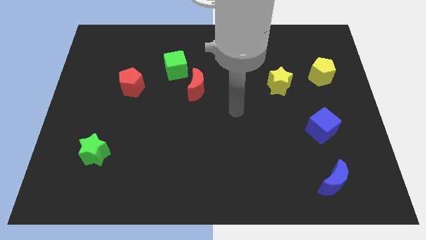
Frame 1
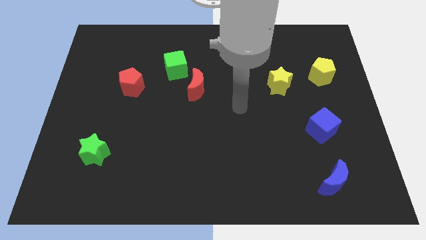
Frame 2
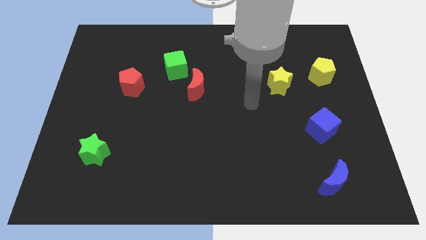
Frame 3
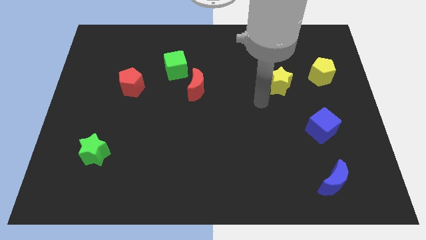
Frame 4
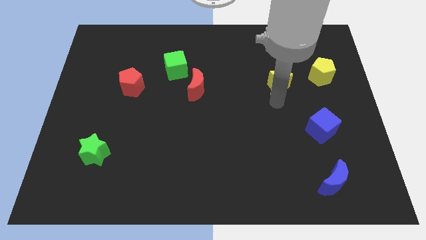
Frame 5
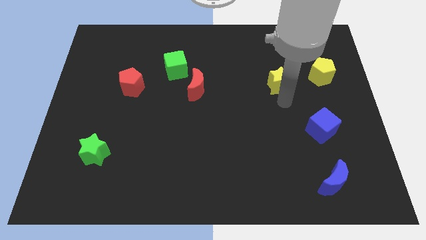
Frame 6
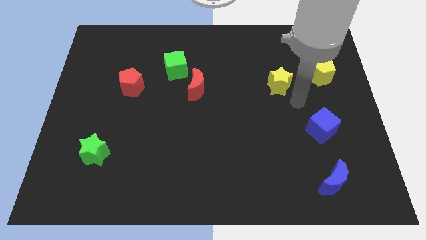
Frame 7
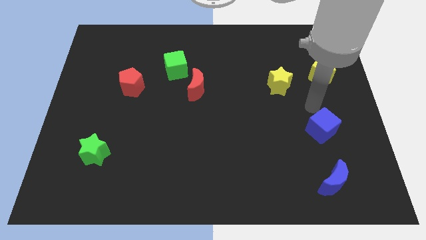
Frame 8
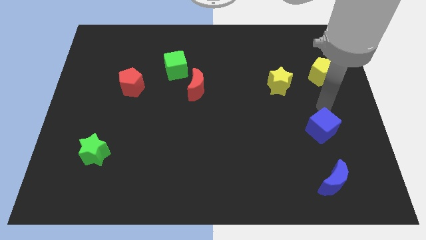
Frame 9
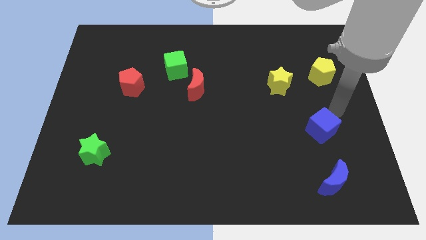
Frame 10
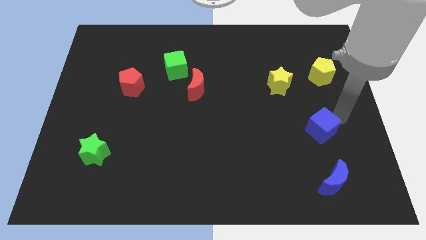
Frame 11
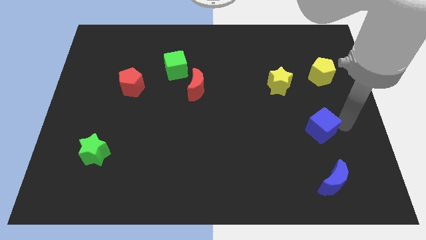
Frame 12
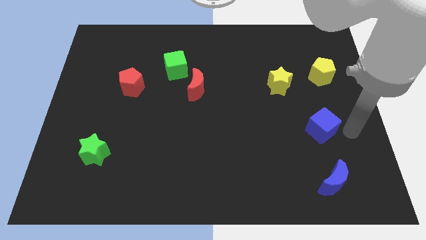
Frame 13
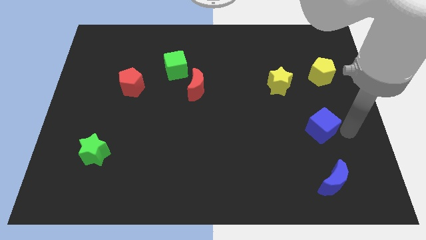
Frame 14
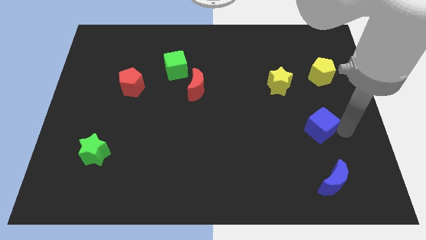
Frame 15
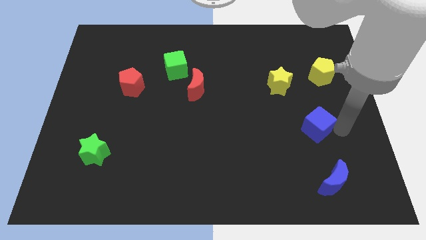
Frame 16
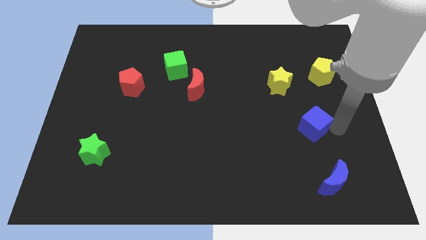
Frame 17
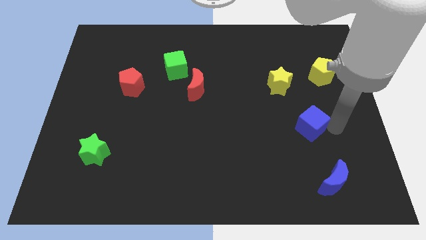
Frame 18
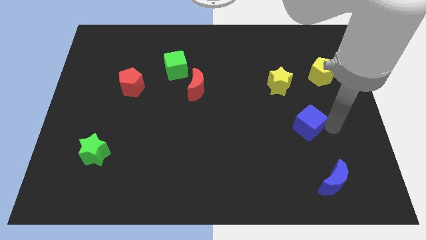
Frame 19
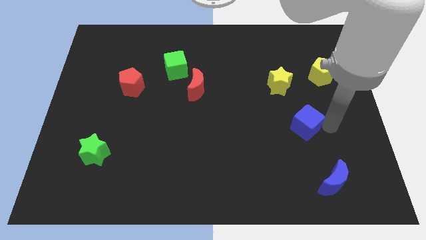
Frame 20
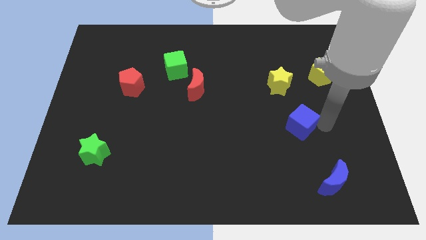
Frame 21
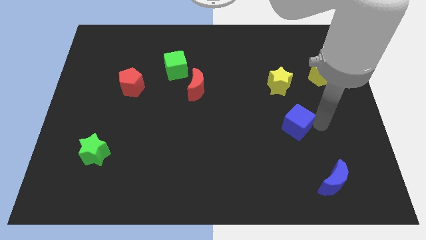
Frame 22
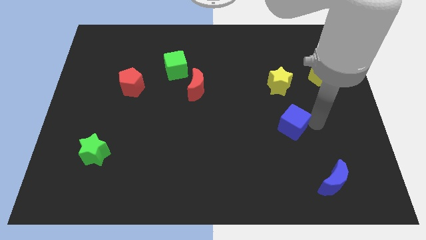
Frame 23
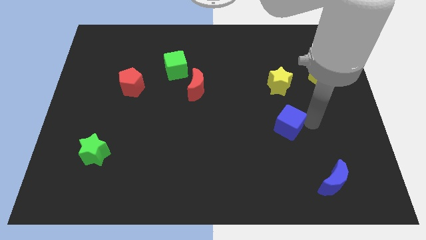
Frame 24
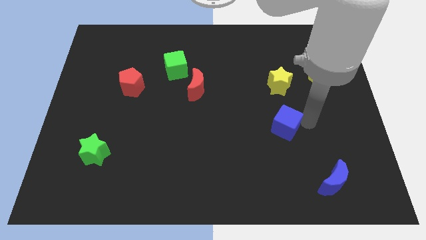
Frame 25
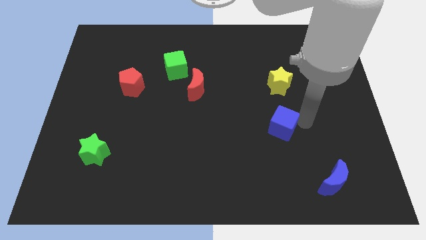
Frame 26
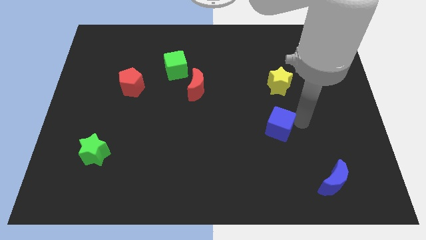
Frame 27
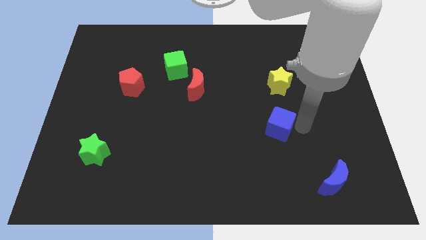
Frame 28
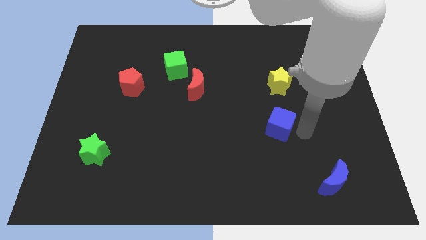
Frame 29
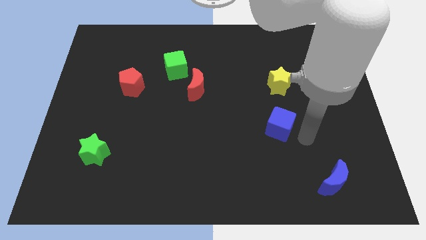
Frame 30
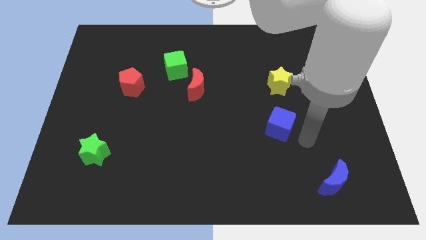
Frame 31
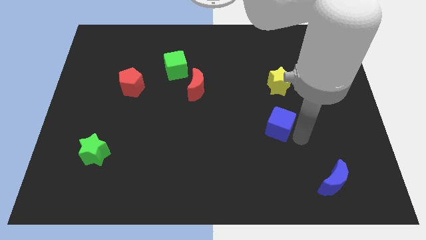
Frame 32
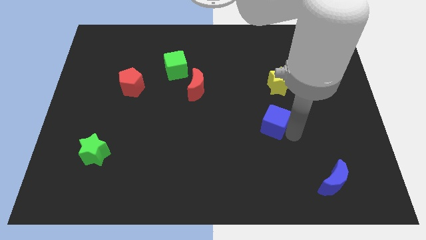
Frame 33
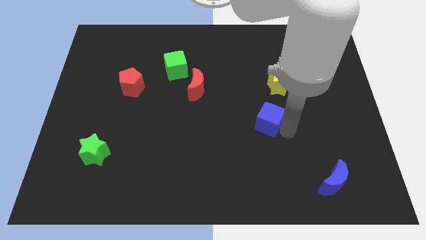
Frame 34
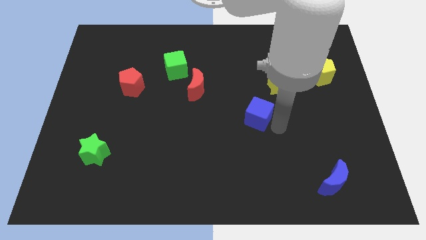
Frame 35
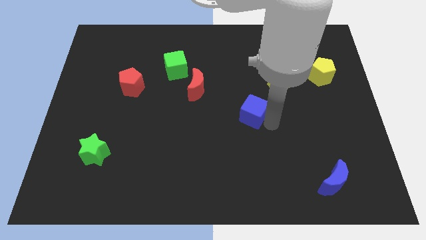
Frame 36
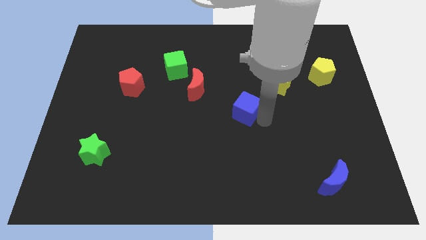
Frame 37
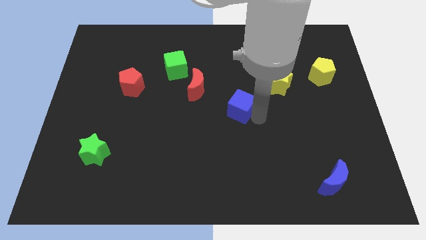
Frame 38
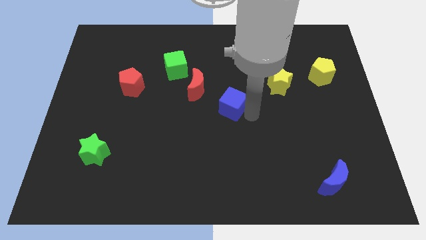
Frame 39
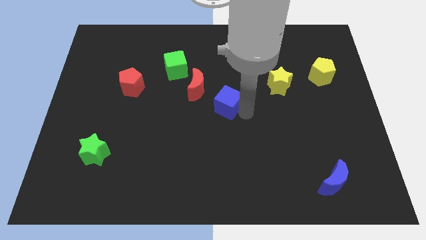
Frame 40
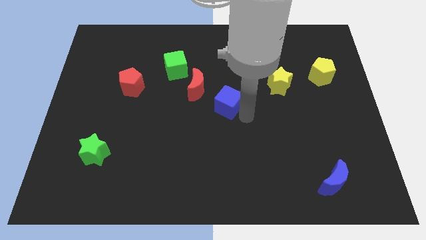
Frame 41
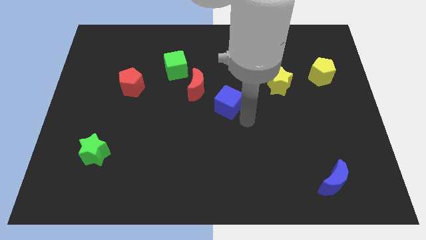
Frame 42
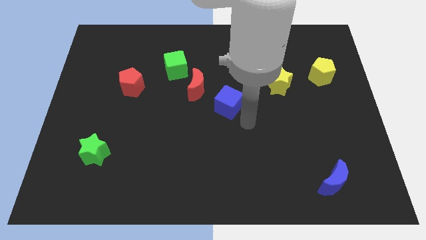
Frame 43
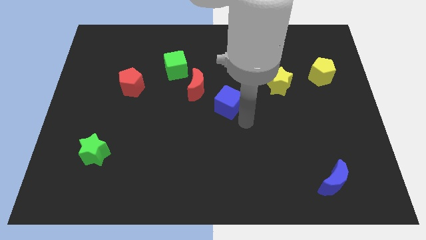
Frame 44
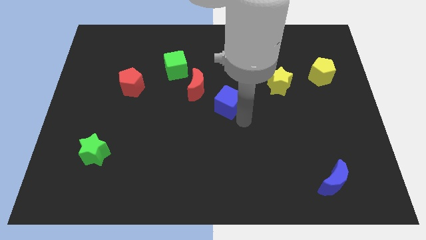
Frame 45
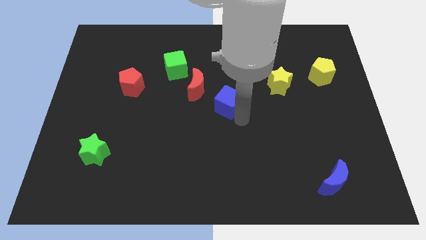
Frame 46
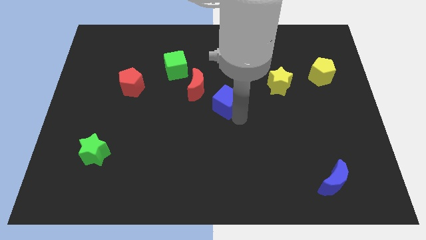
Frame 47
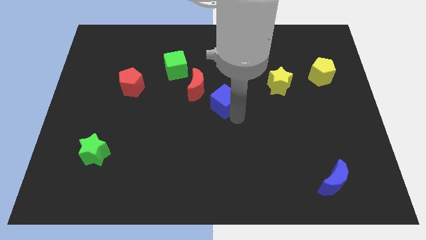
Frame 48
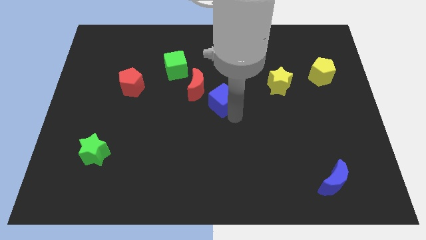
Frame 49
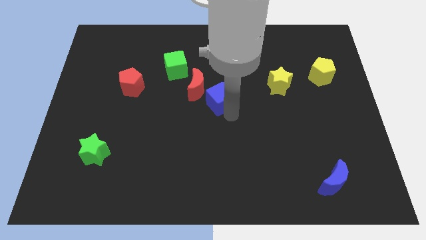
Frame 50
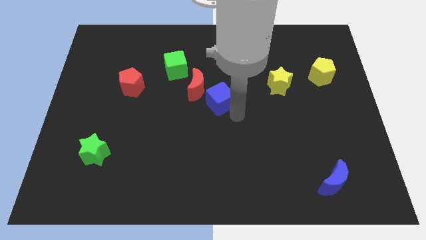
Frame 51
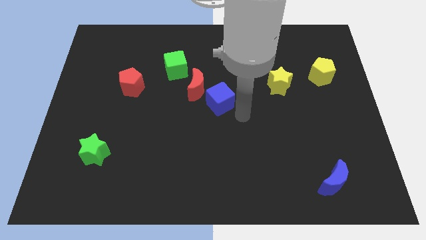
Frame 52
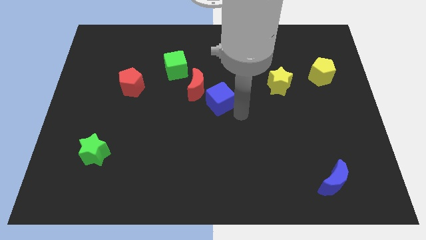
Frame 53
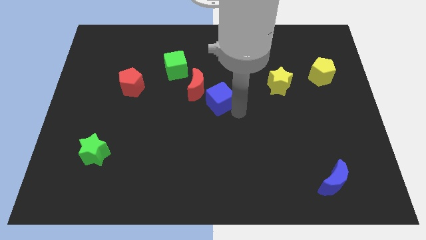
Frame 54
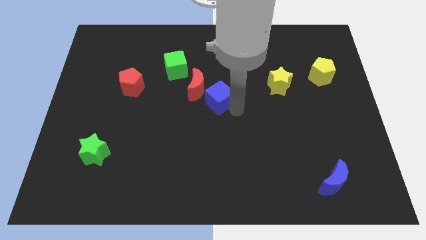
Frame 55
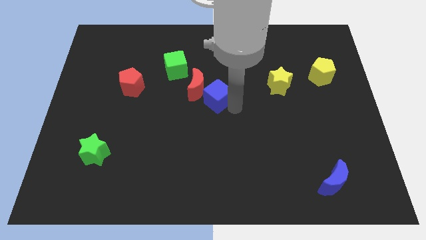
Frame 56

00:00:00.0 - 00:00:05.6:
push the blue cube next to the red moon
